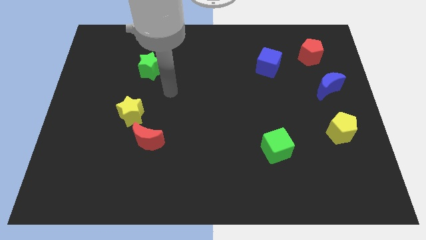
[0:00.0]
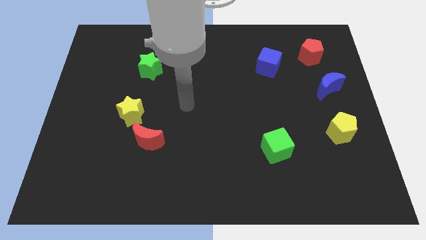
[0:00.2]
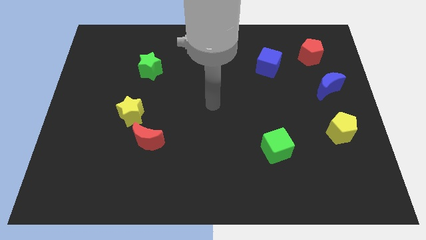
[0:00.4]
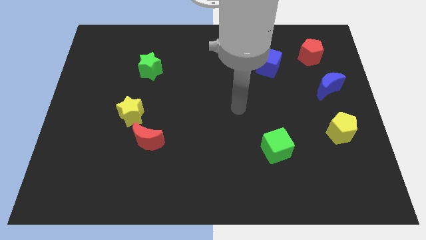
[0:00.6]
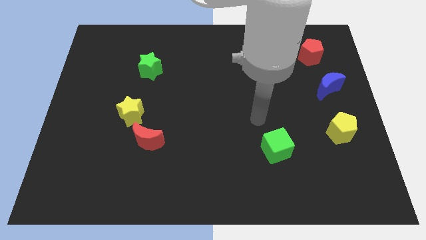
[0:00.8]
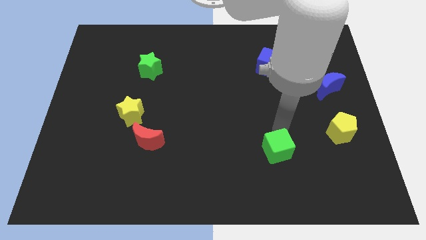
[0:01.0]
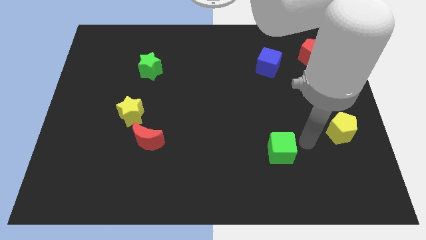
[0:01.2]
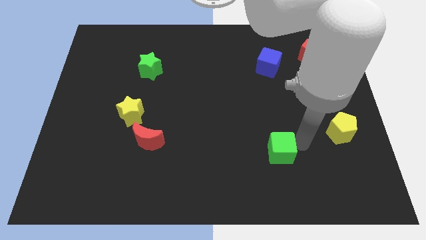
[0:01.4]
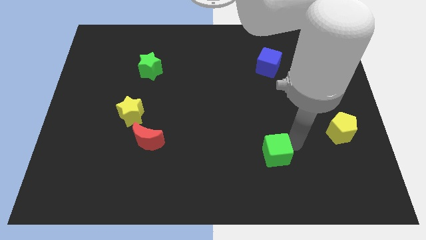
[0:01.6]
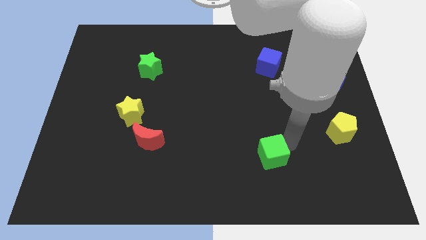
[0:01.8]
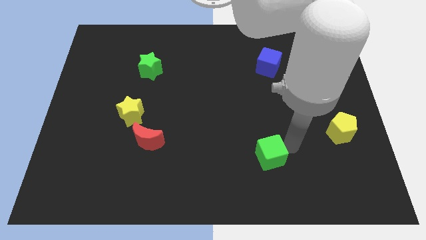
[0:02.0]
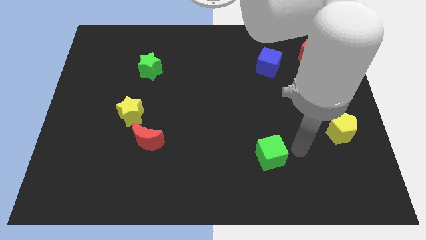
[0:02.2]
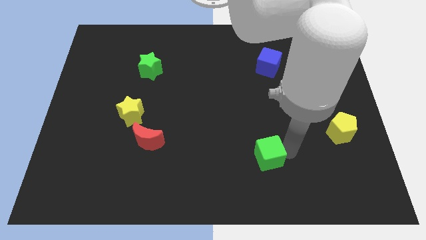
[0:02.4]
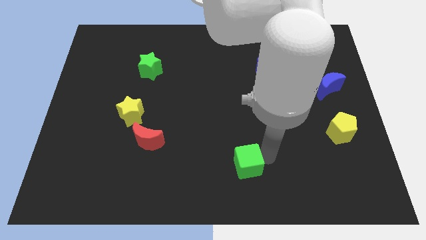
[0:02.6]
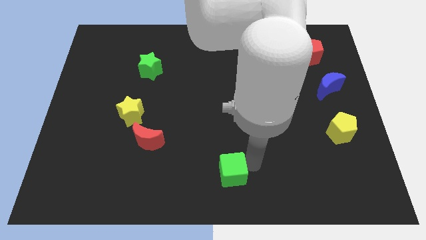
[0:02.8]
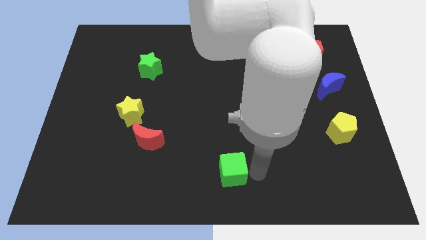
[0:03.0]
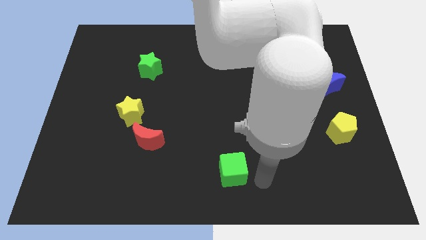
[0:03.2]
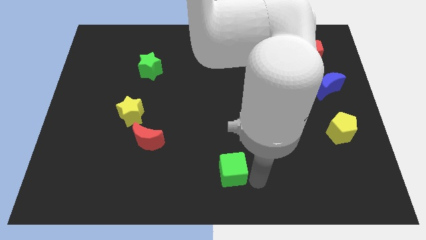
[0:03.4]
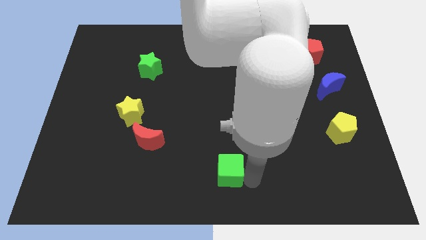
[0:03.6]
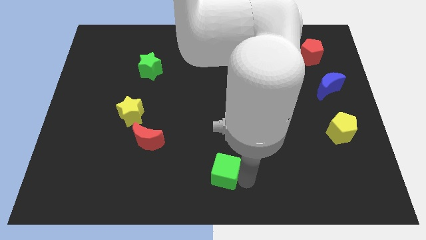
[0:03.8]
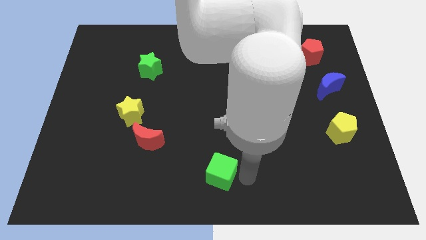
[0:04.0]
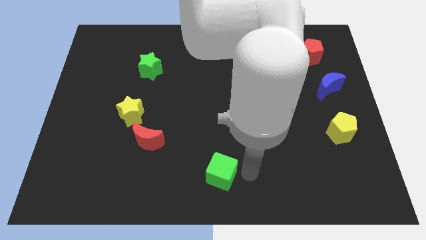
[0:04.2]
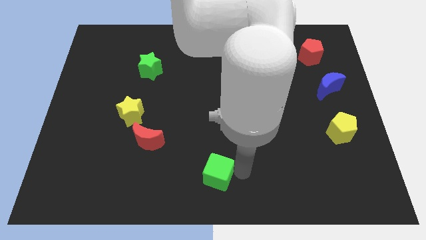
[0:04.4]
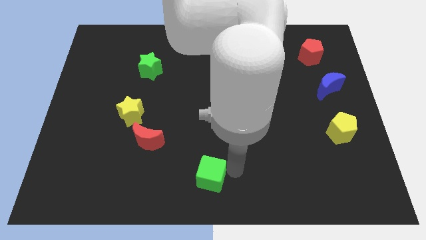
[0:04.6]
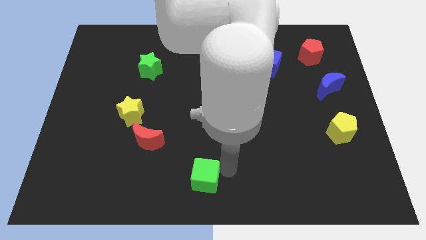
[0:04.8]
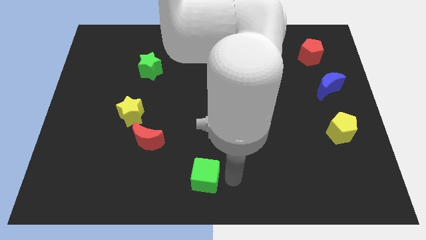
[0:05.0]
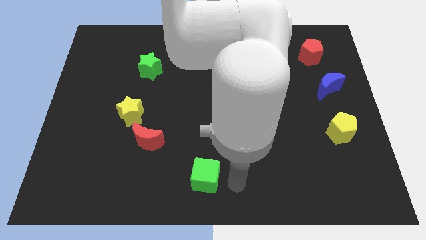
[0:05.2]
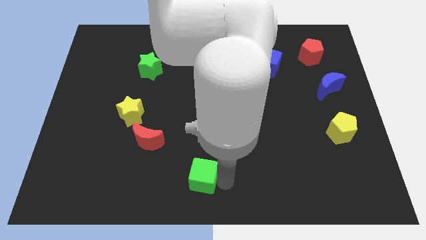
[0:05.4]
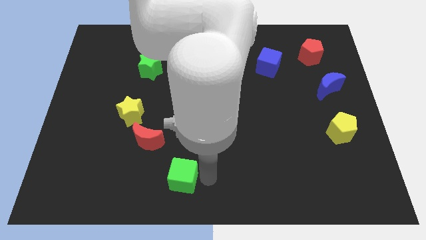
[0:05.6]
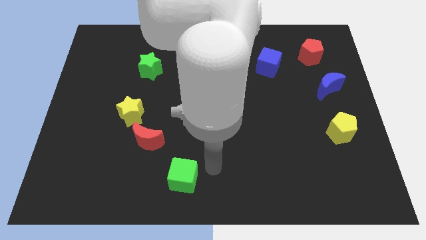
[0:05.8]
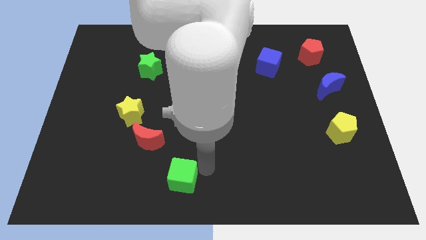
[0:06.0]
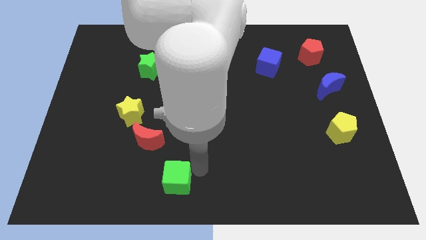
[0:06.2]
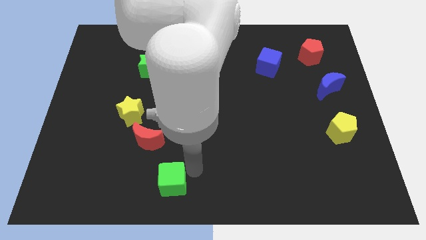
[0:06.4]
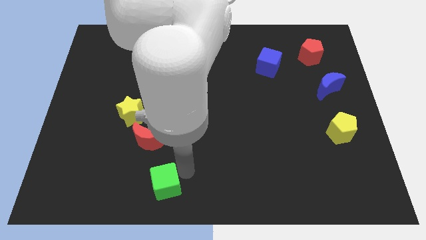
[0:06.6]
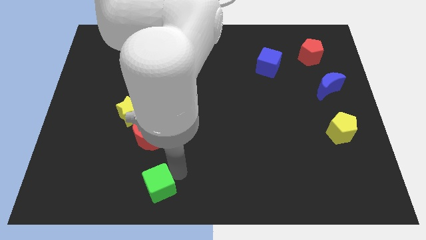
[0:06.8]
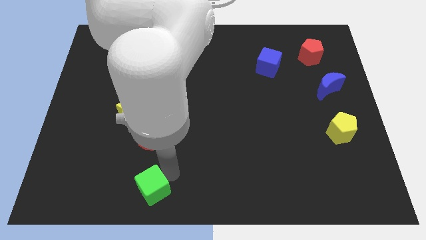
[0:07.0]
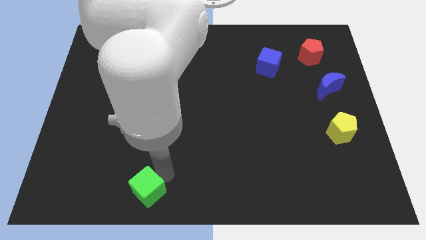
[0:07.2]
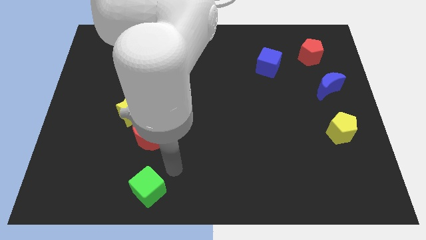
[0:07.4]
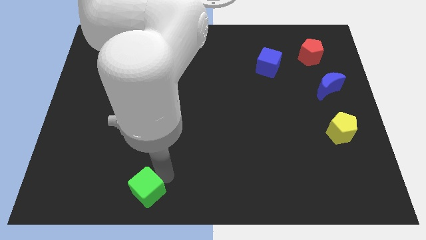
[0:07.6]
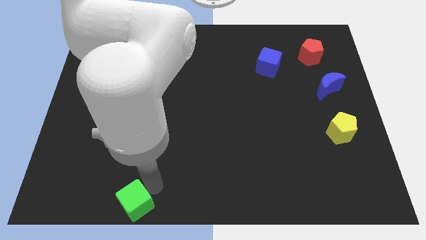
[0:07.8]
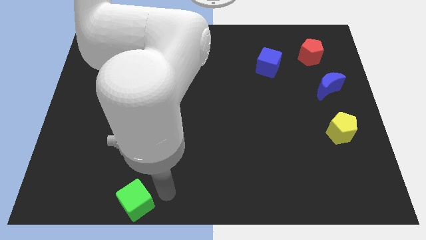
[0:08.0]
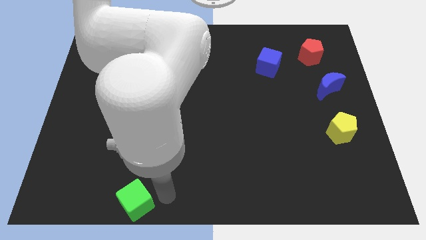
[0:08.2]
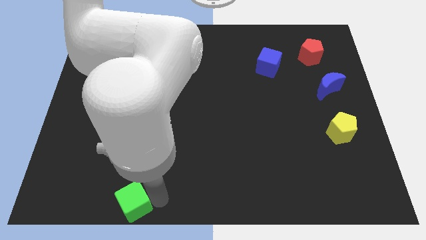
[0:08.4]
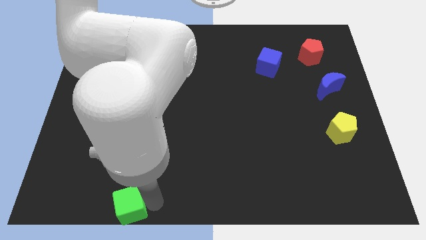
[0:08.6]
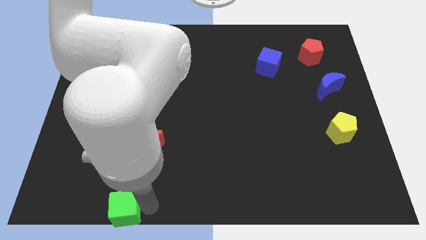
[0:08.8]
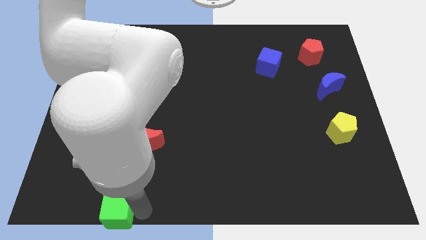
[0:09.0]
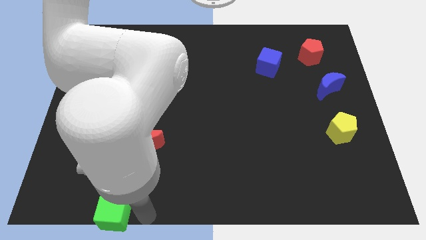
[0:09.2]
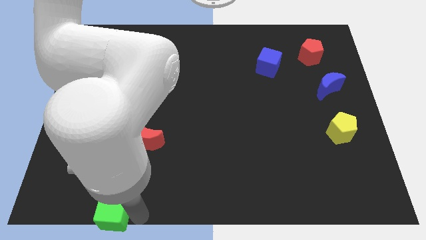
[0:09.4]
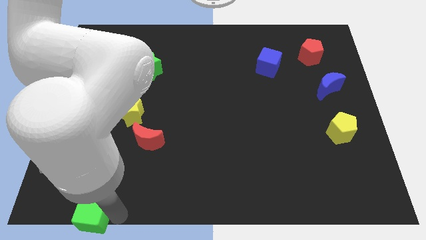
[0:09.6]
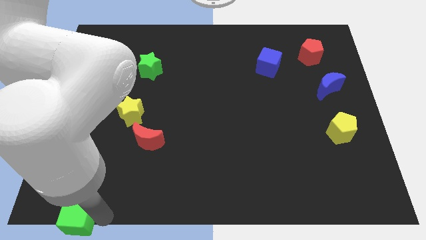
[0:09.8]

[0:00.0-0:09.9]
push the green cube to the bottom left of the board

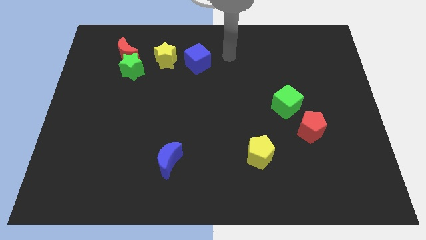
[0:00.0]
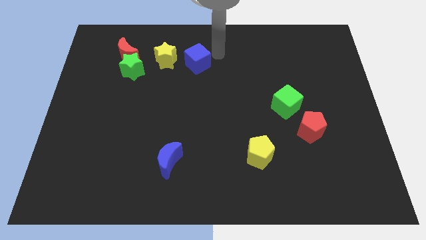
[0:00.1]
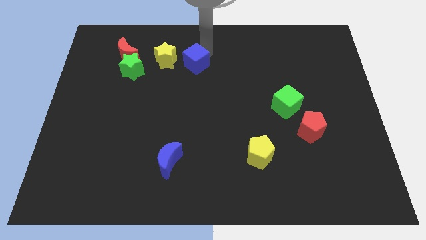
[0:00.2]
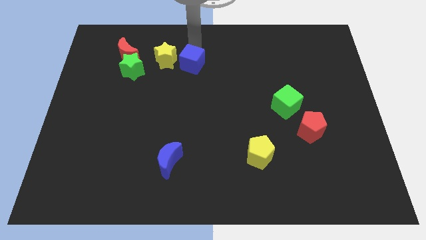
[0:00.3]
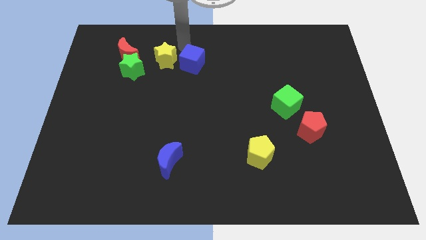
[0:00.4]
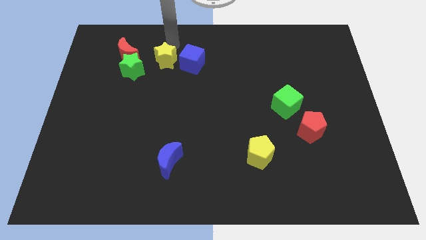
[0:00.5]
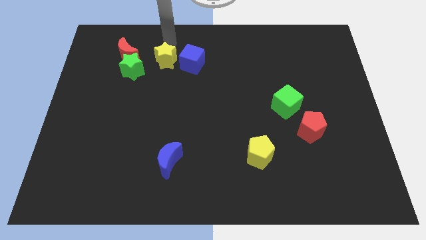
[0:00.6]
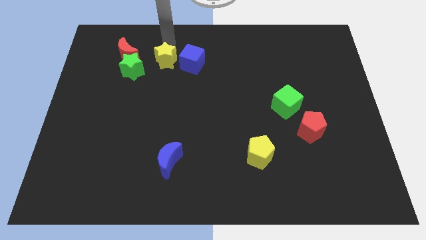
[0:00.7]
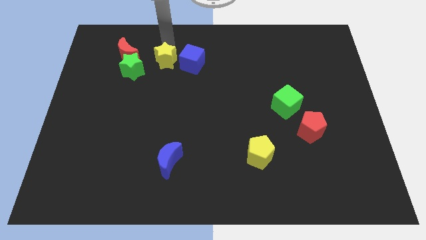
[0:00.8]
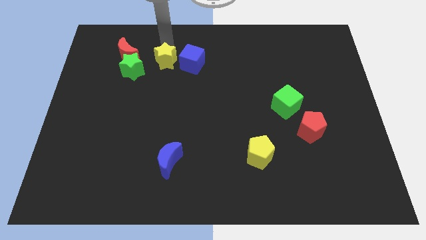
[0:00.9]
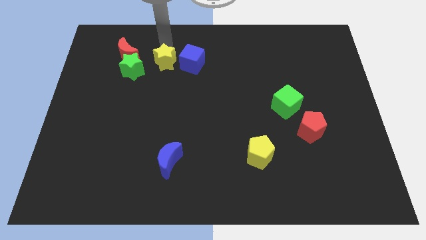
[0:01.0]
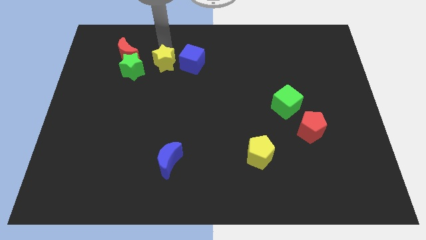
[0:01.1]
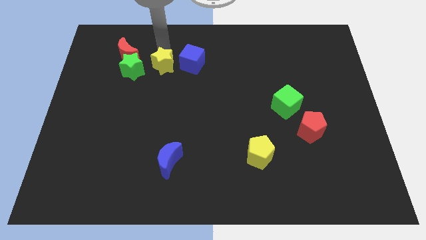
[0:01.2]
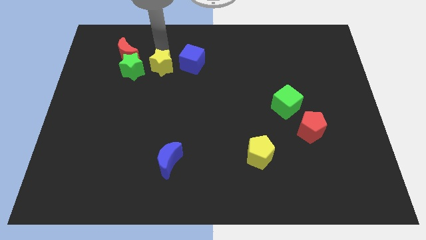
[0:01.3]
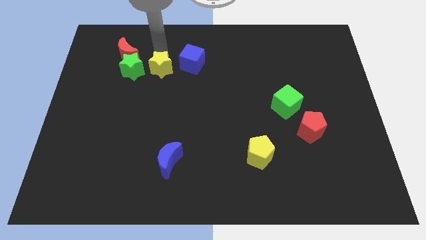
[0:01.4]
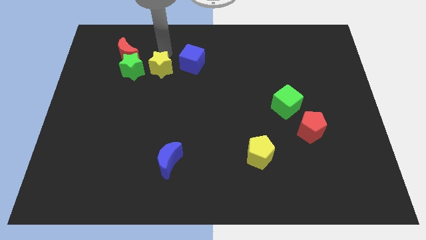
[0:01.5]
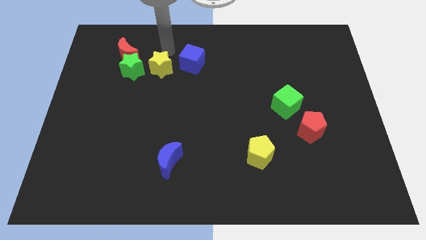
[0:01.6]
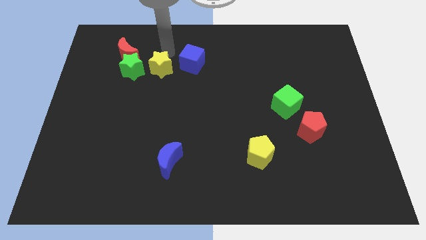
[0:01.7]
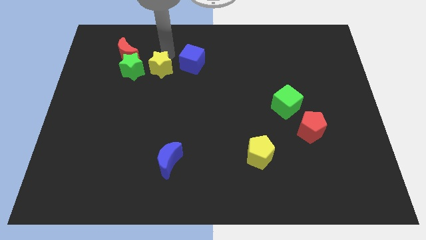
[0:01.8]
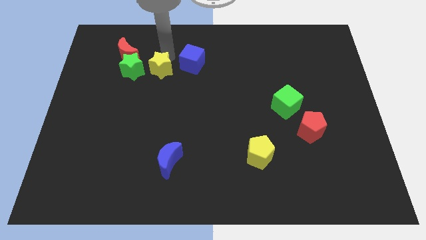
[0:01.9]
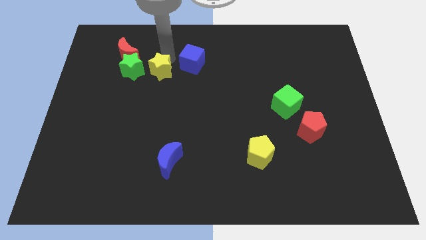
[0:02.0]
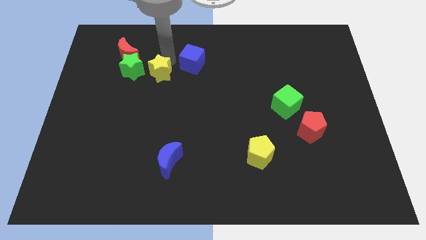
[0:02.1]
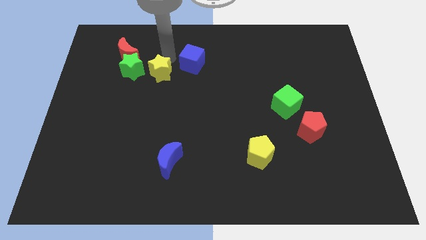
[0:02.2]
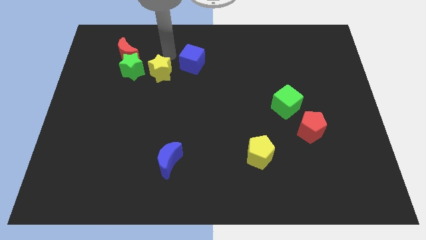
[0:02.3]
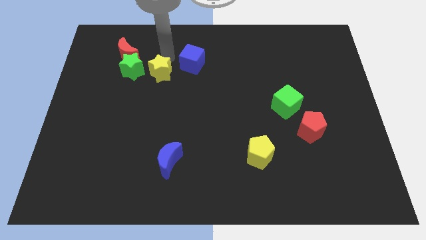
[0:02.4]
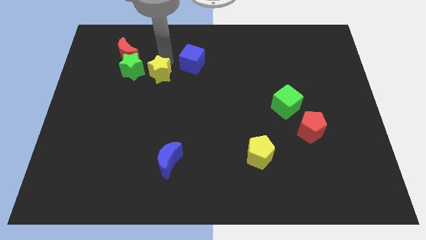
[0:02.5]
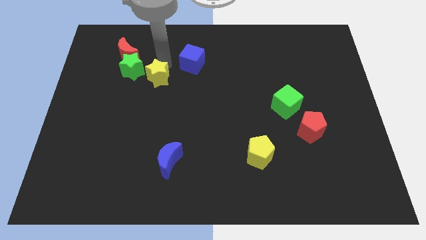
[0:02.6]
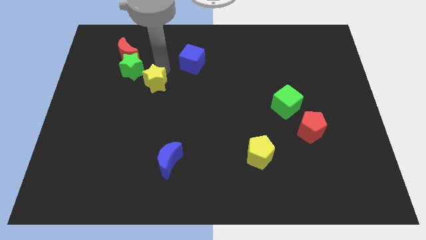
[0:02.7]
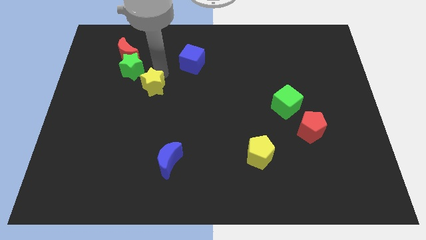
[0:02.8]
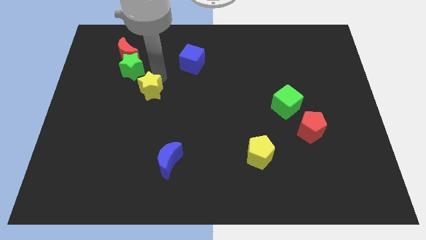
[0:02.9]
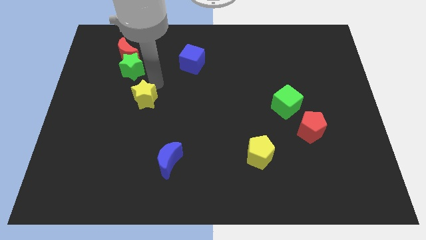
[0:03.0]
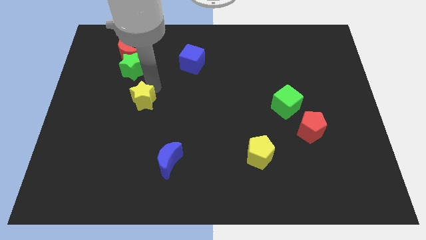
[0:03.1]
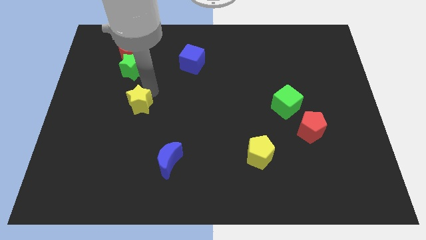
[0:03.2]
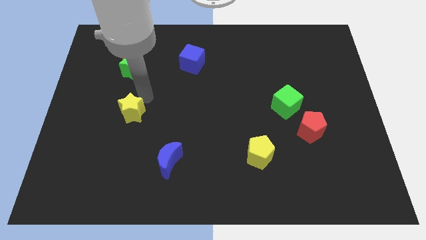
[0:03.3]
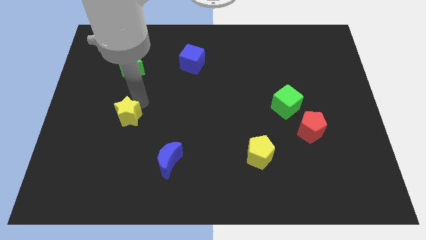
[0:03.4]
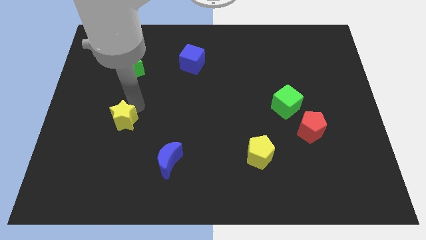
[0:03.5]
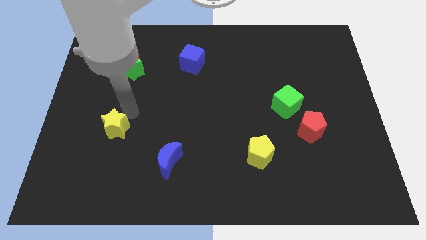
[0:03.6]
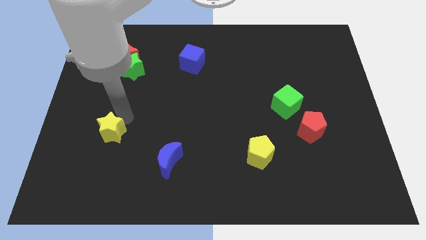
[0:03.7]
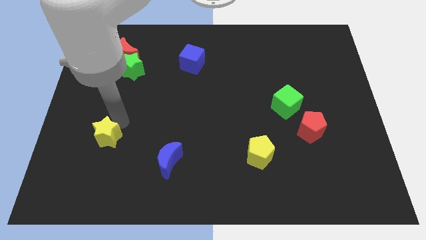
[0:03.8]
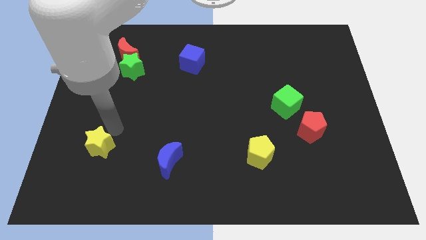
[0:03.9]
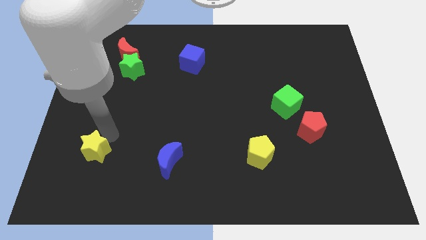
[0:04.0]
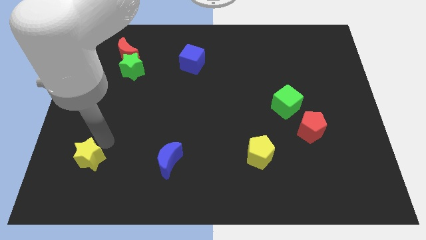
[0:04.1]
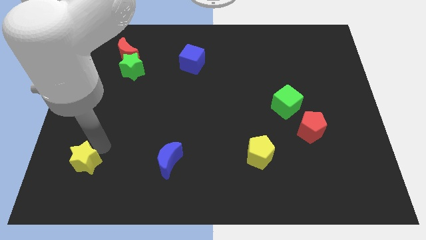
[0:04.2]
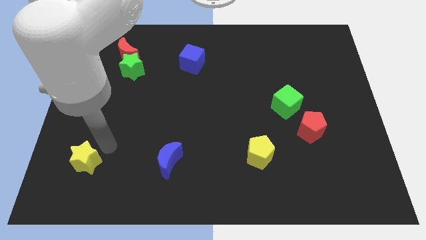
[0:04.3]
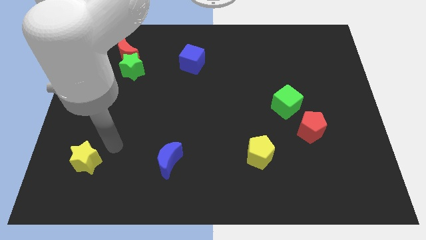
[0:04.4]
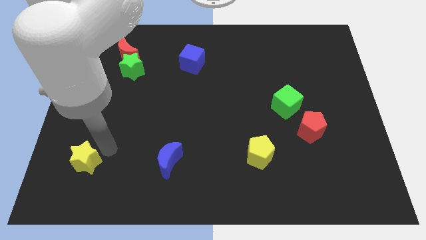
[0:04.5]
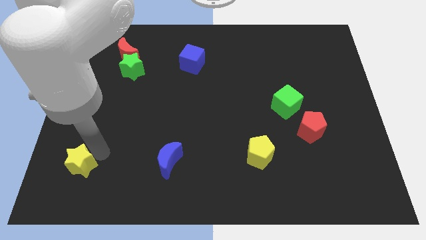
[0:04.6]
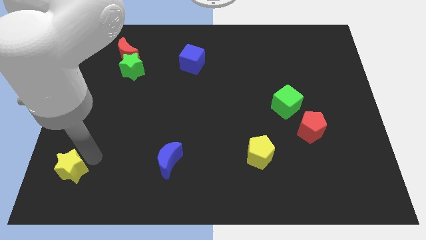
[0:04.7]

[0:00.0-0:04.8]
slide the yellow star to the lower left corner
